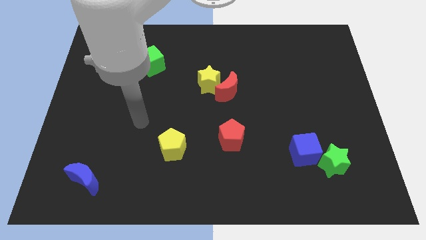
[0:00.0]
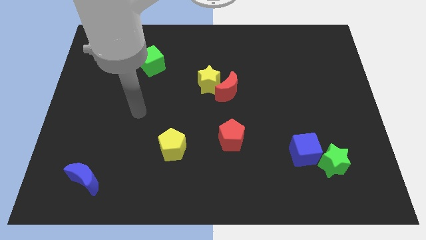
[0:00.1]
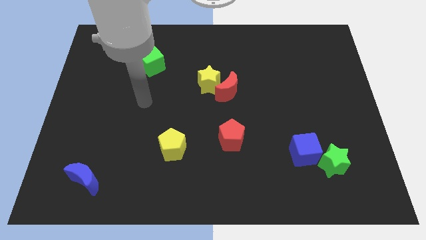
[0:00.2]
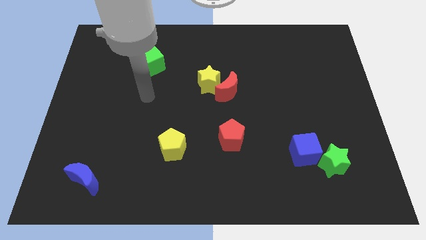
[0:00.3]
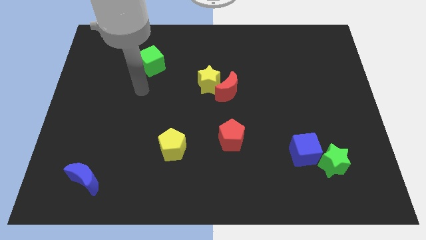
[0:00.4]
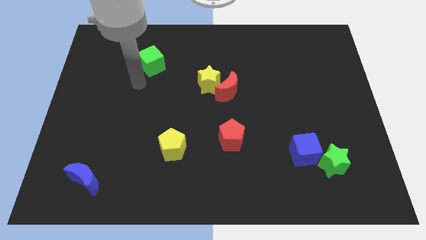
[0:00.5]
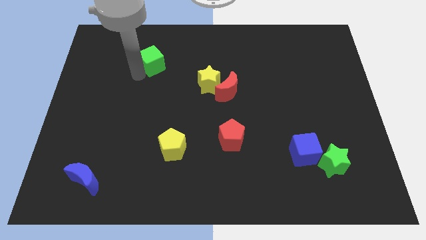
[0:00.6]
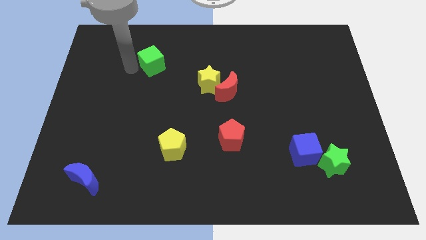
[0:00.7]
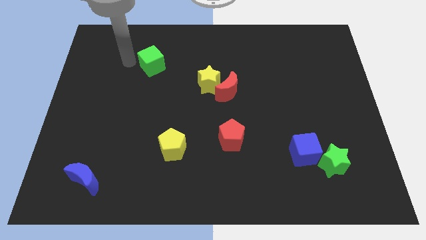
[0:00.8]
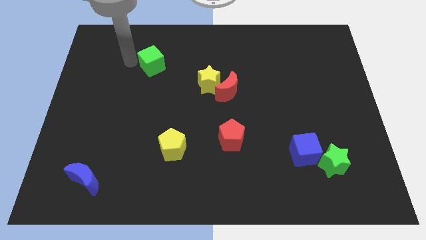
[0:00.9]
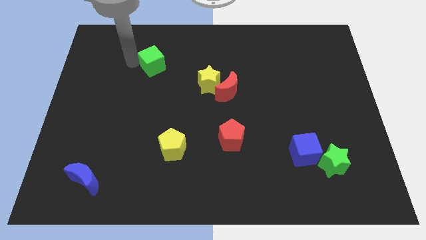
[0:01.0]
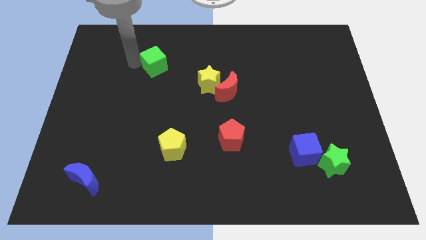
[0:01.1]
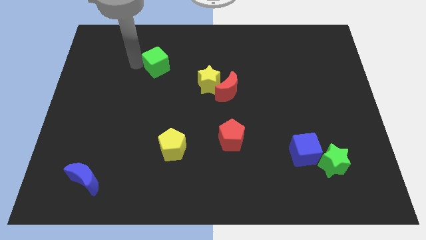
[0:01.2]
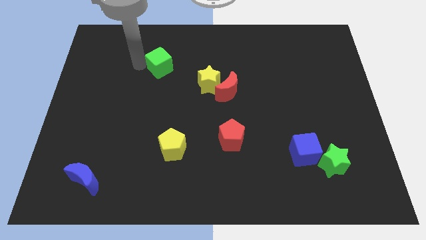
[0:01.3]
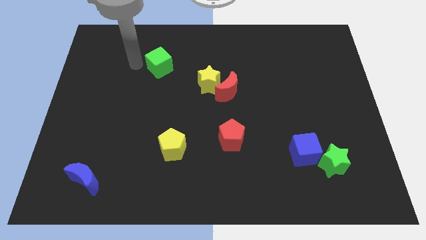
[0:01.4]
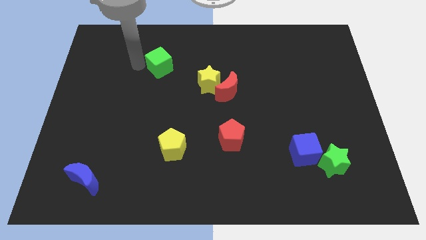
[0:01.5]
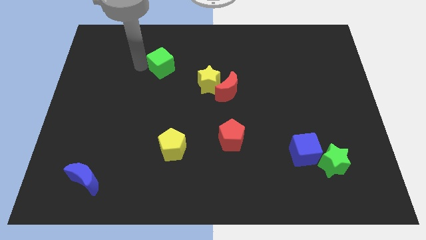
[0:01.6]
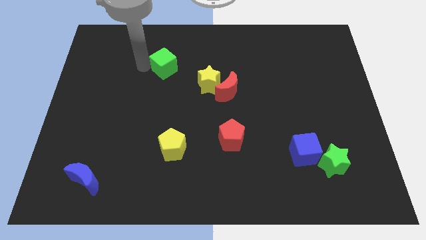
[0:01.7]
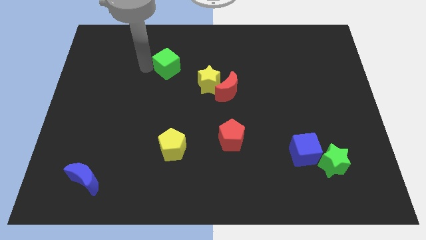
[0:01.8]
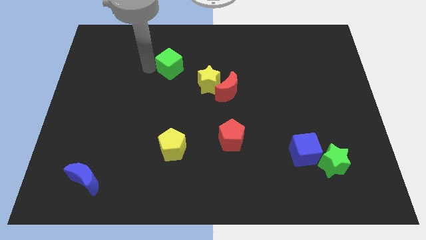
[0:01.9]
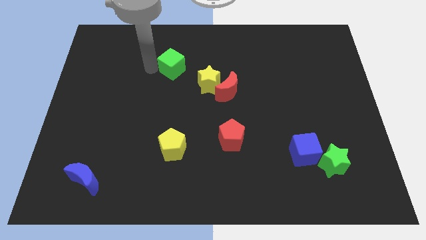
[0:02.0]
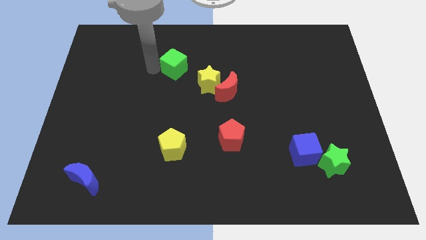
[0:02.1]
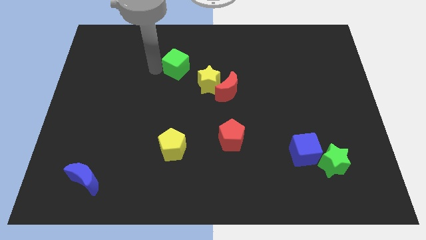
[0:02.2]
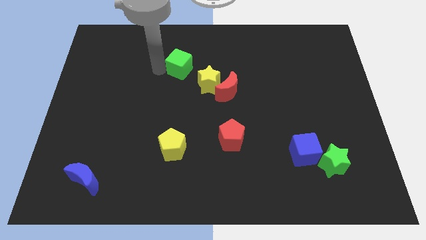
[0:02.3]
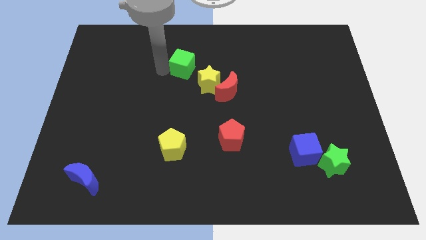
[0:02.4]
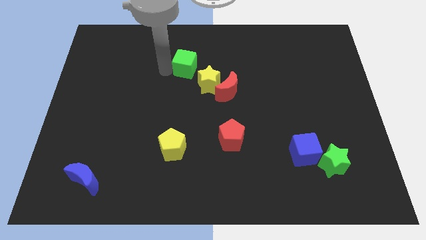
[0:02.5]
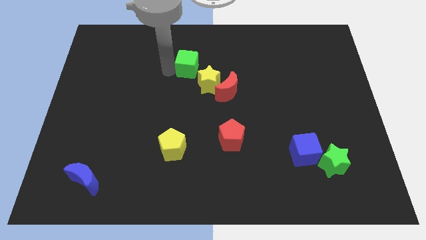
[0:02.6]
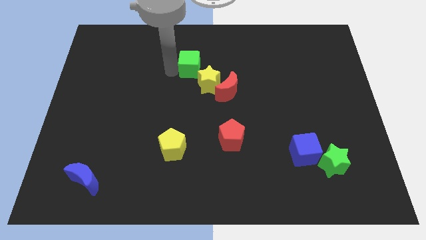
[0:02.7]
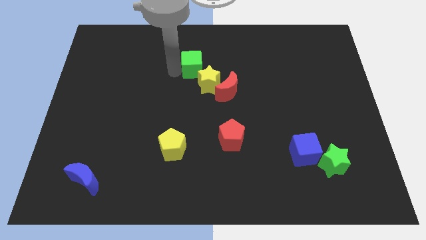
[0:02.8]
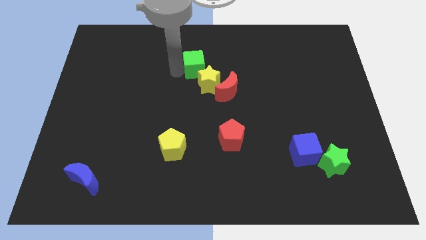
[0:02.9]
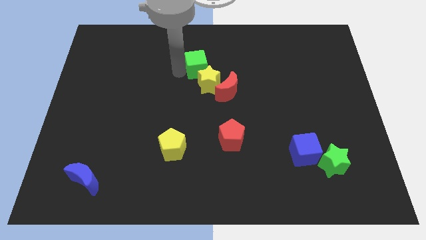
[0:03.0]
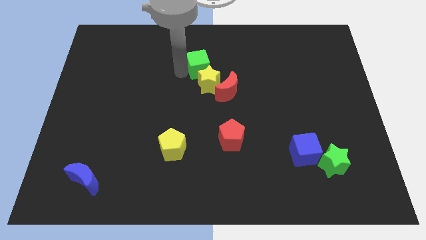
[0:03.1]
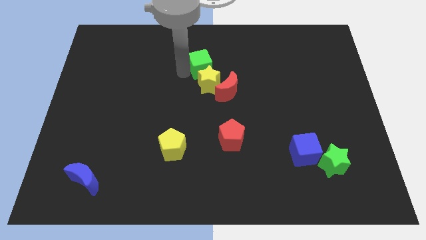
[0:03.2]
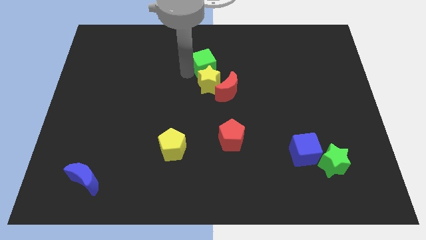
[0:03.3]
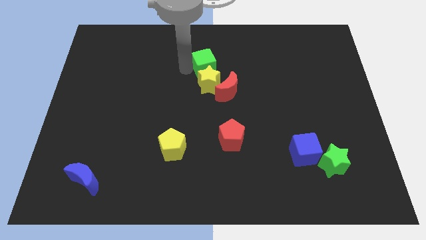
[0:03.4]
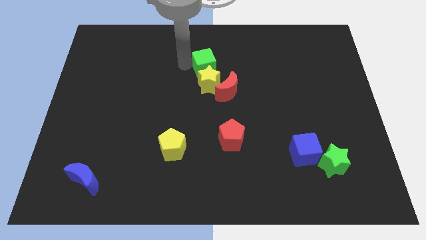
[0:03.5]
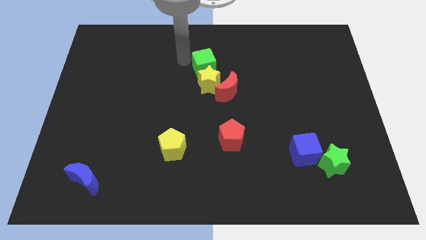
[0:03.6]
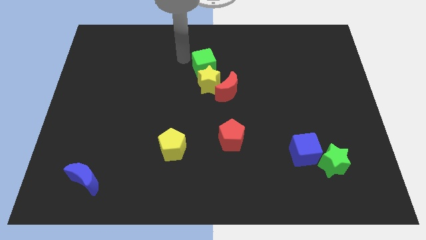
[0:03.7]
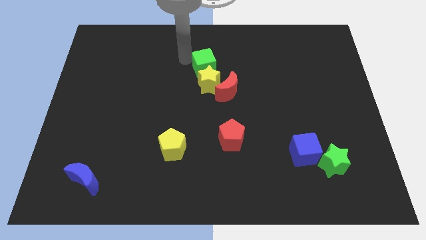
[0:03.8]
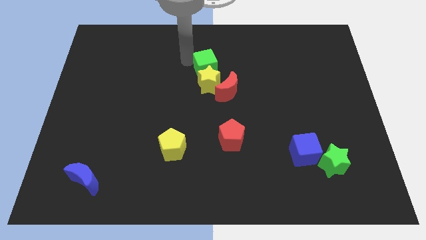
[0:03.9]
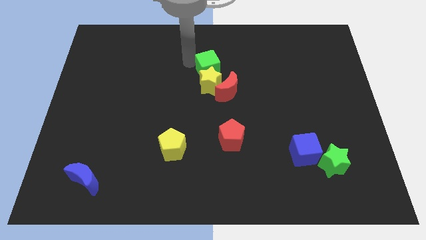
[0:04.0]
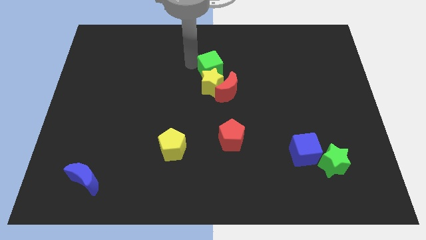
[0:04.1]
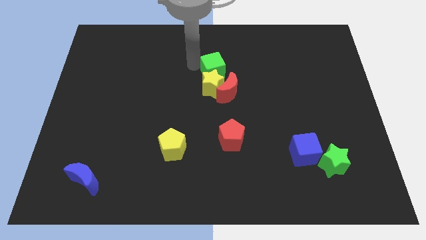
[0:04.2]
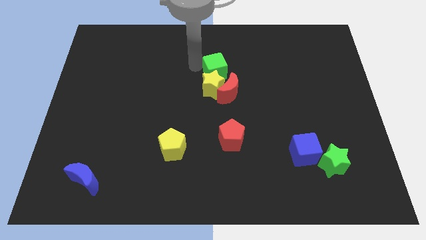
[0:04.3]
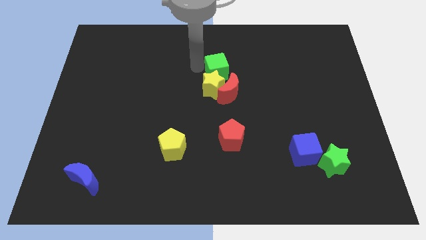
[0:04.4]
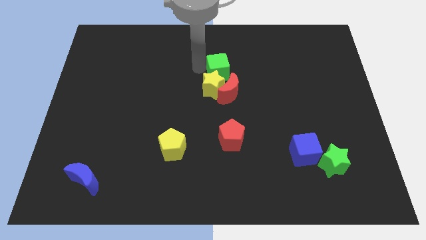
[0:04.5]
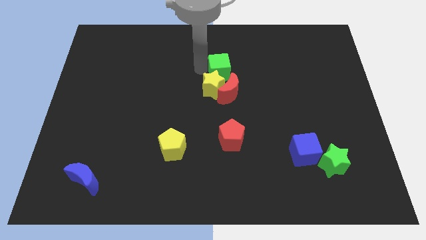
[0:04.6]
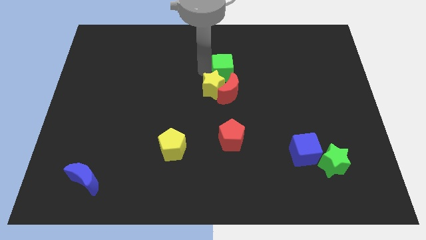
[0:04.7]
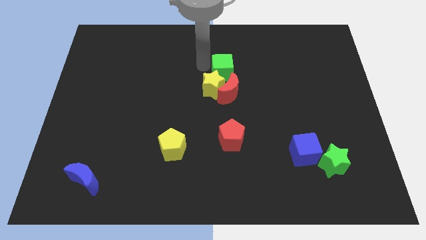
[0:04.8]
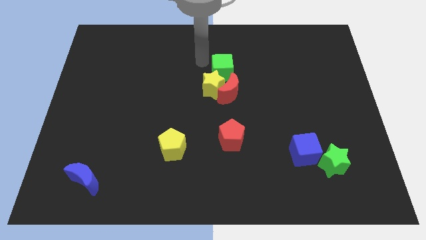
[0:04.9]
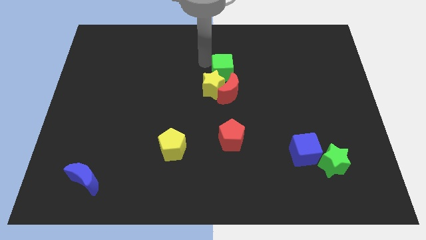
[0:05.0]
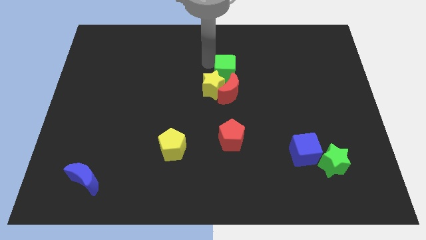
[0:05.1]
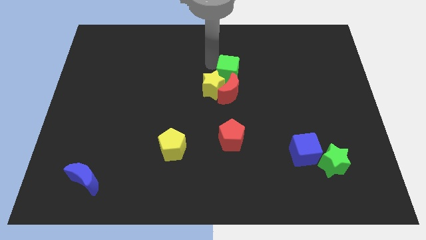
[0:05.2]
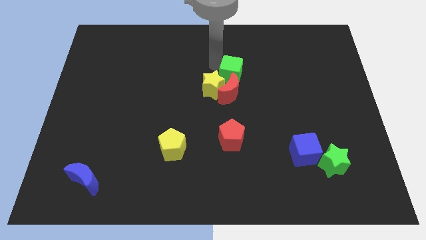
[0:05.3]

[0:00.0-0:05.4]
slide the green cube to the right of the yellow star

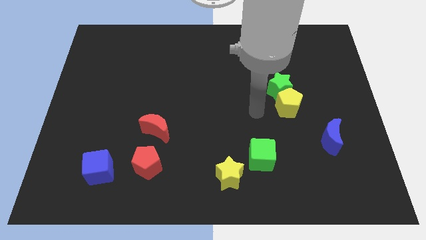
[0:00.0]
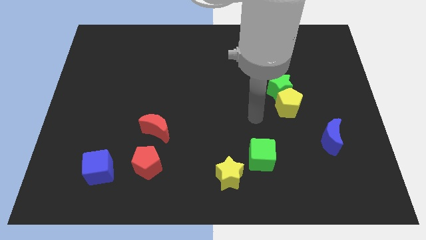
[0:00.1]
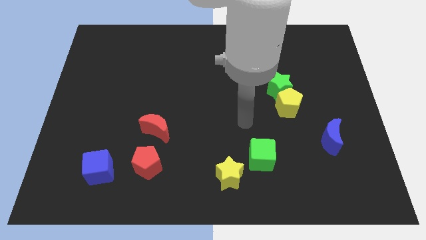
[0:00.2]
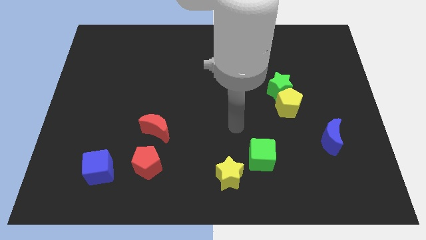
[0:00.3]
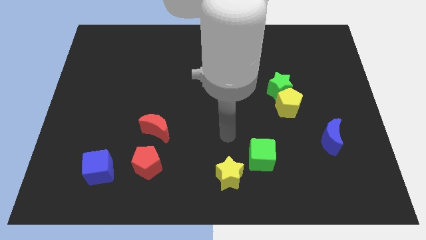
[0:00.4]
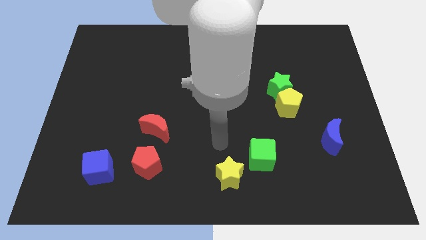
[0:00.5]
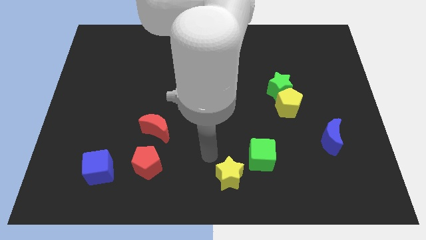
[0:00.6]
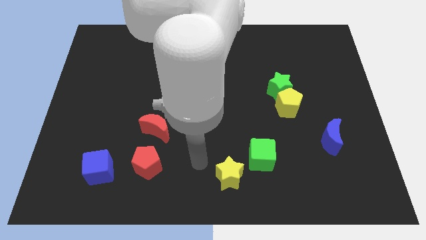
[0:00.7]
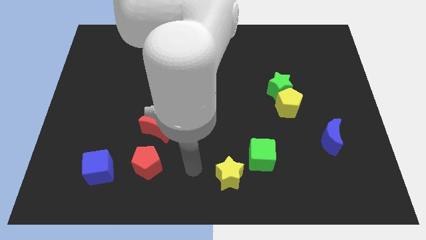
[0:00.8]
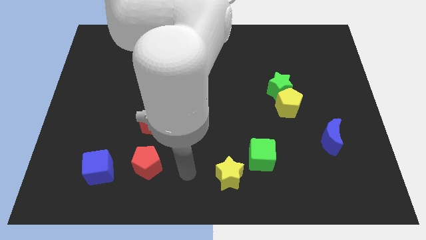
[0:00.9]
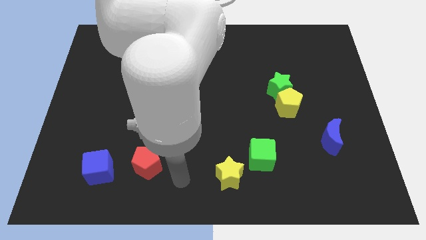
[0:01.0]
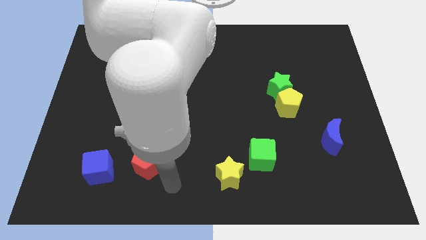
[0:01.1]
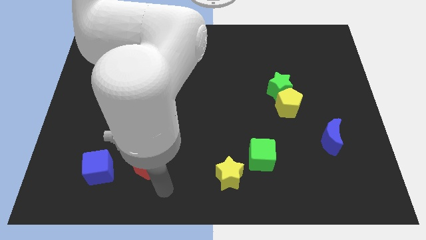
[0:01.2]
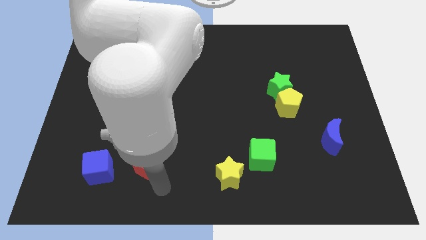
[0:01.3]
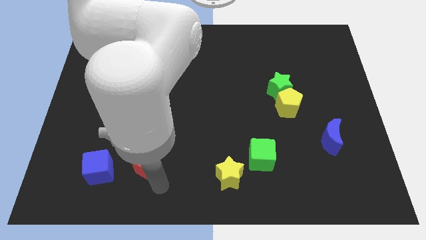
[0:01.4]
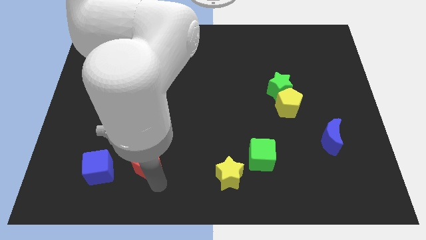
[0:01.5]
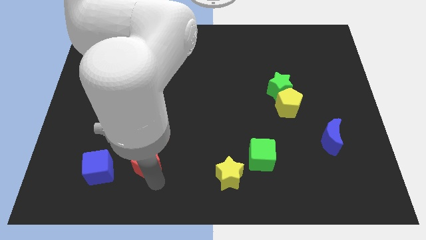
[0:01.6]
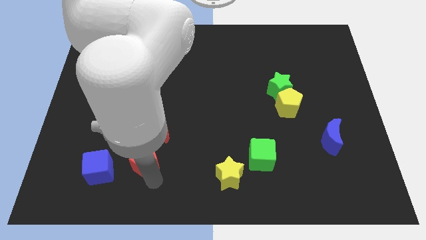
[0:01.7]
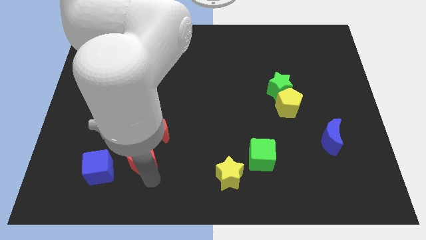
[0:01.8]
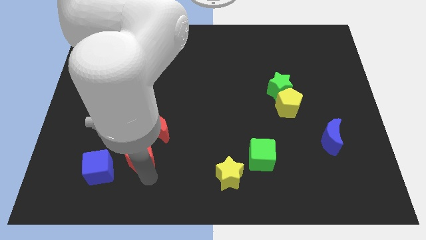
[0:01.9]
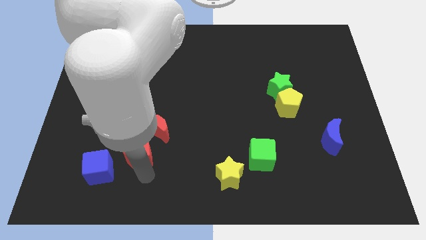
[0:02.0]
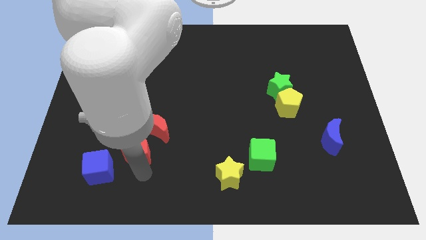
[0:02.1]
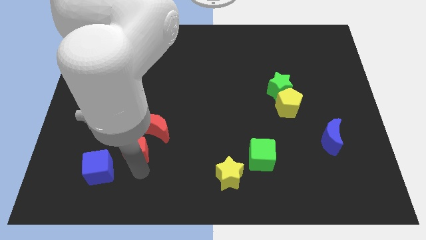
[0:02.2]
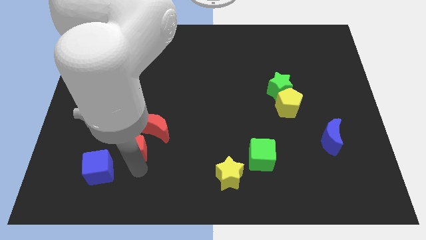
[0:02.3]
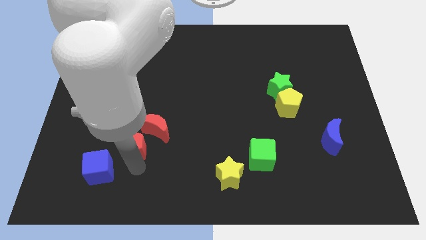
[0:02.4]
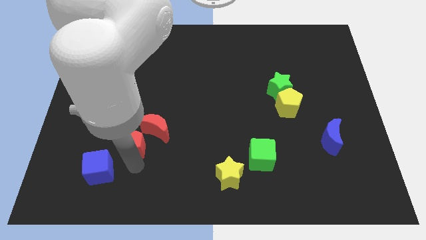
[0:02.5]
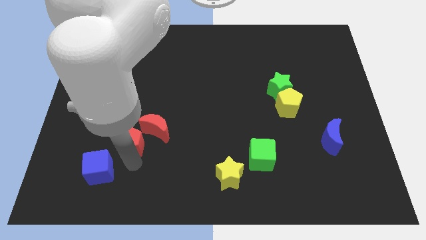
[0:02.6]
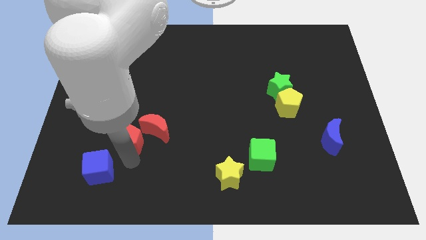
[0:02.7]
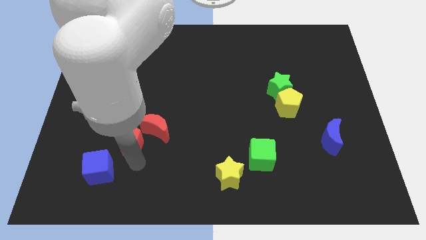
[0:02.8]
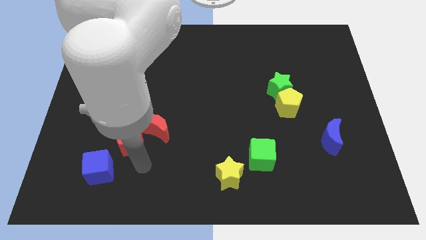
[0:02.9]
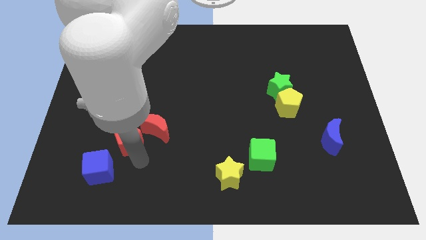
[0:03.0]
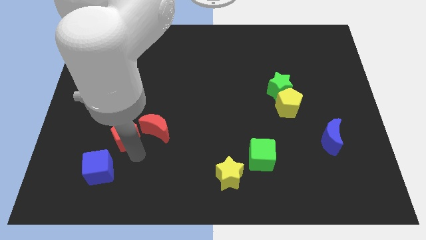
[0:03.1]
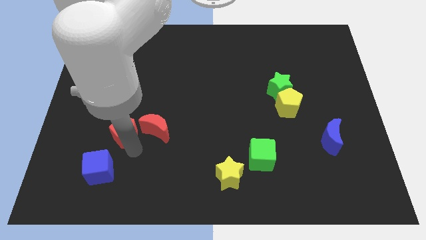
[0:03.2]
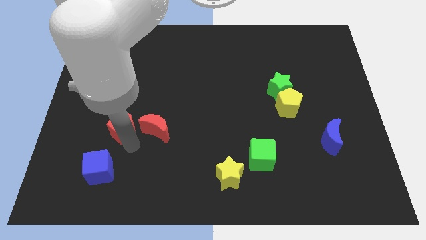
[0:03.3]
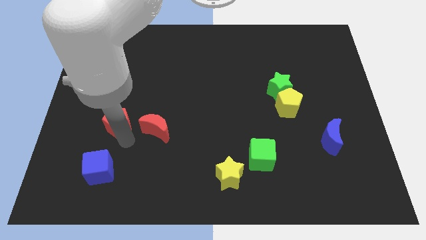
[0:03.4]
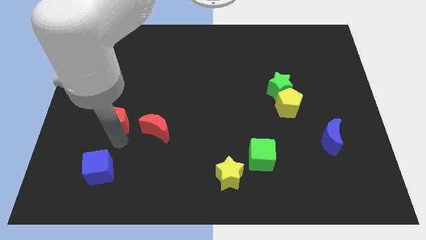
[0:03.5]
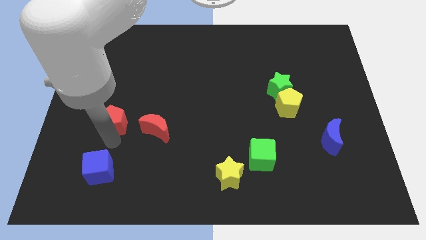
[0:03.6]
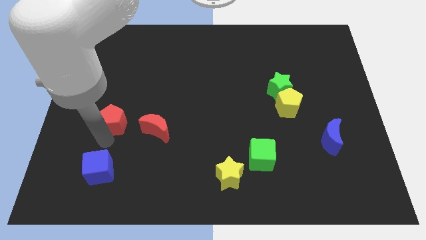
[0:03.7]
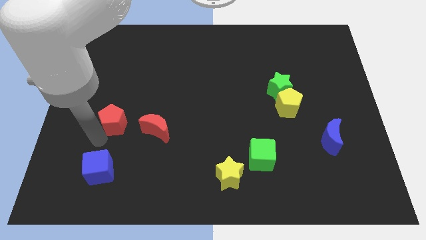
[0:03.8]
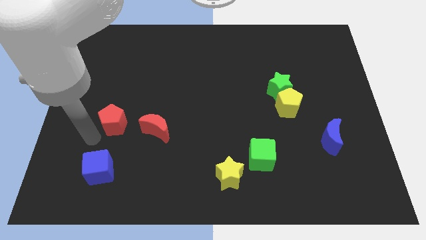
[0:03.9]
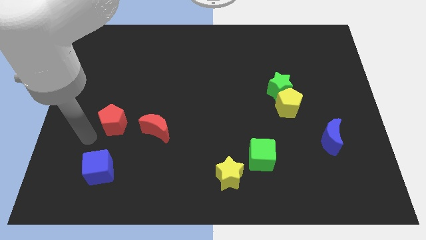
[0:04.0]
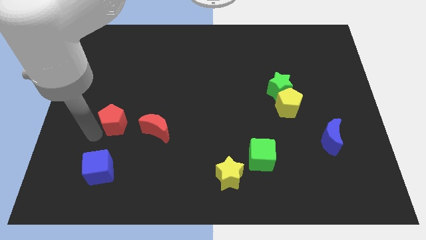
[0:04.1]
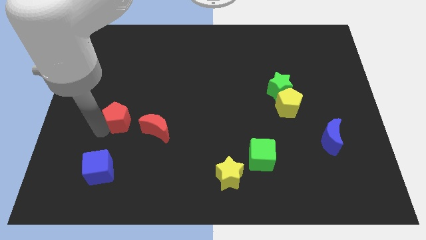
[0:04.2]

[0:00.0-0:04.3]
put the red pentagon to the top left of the red moon
